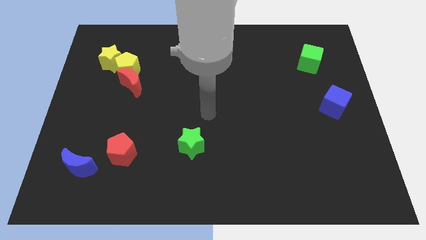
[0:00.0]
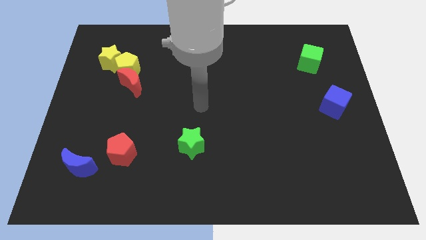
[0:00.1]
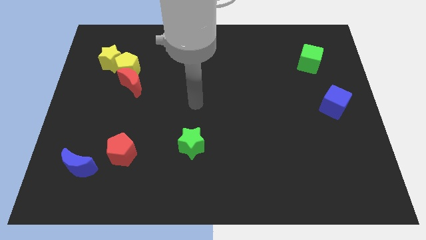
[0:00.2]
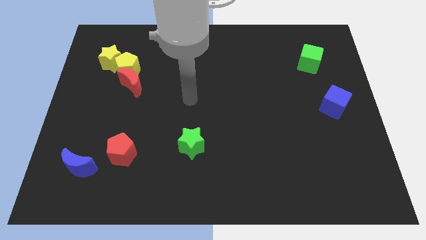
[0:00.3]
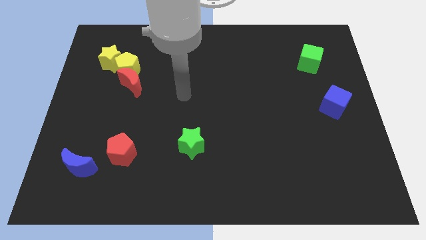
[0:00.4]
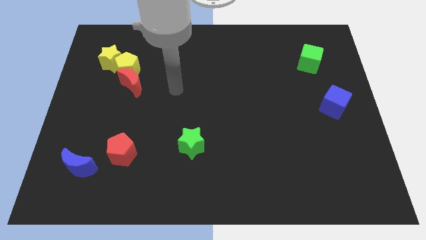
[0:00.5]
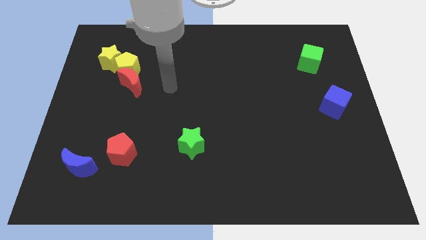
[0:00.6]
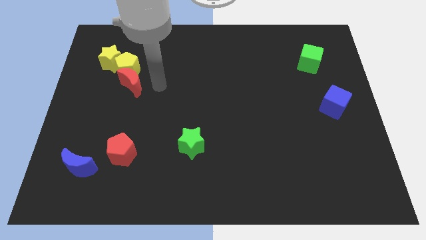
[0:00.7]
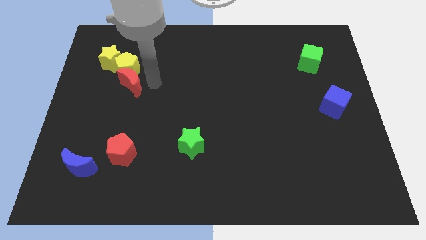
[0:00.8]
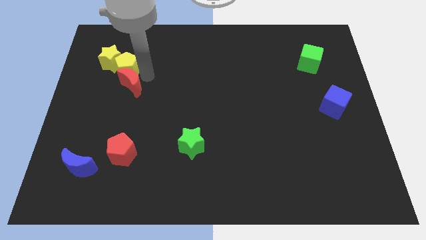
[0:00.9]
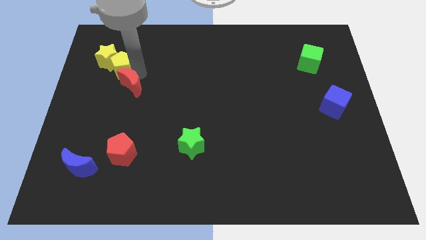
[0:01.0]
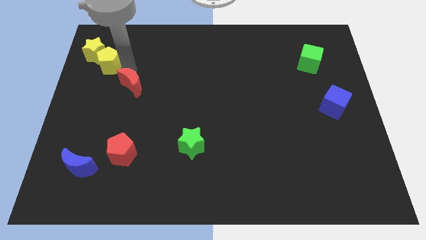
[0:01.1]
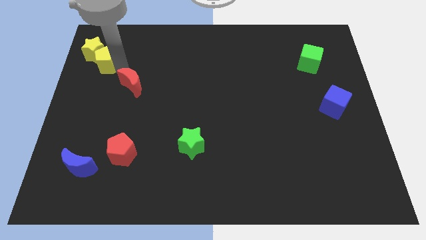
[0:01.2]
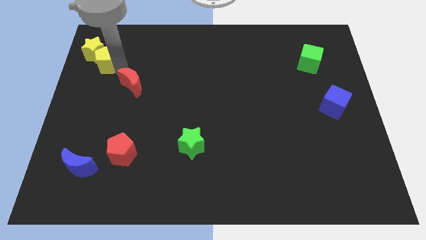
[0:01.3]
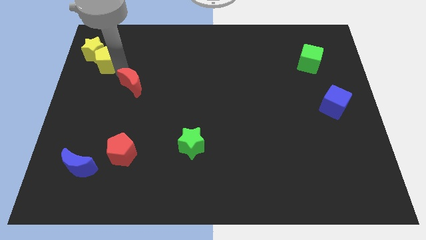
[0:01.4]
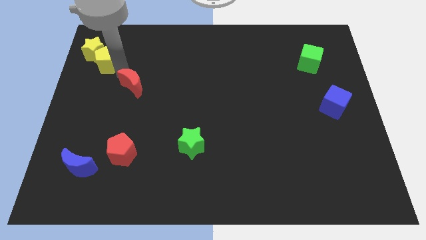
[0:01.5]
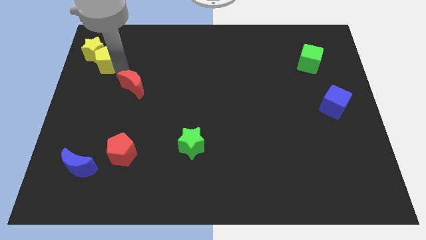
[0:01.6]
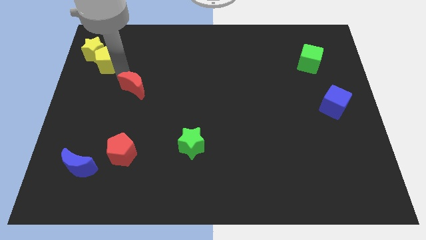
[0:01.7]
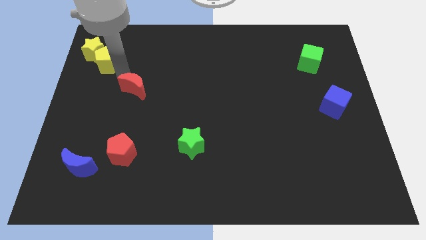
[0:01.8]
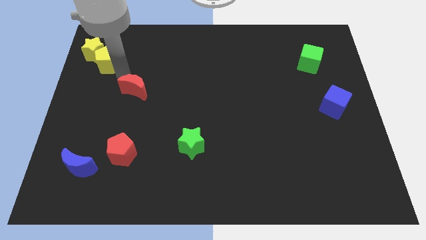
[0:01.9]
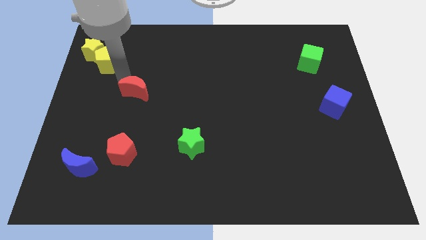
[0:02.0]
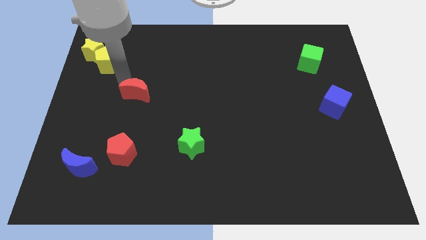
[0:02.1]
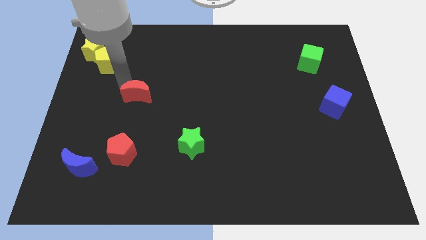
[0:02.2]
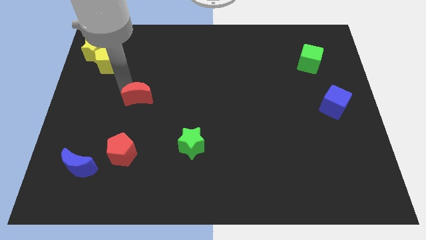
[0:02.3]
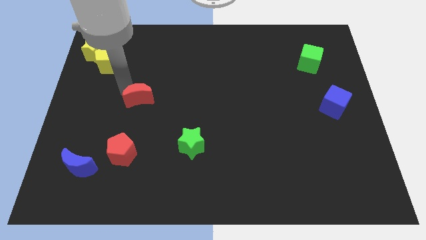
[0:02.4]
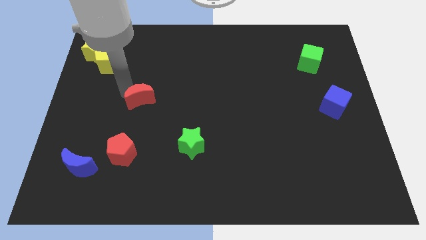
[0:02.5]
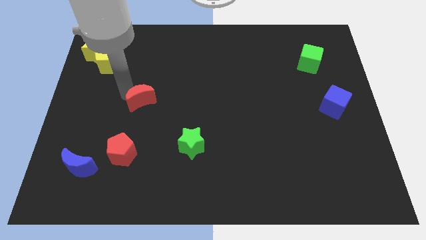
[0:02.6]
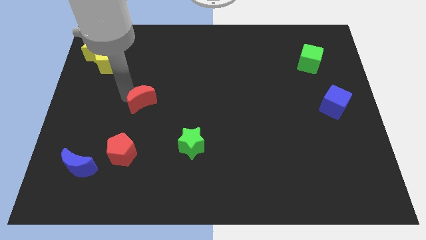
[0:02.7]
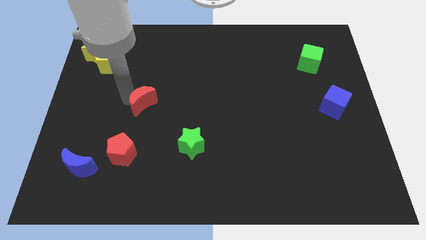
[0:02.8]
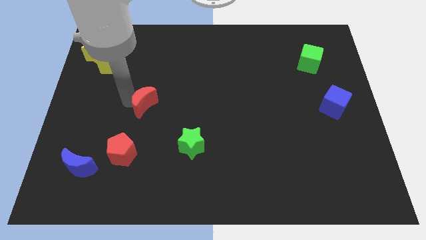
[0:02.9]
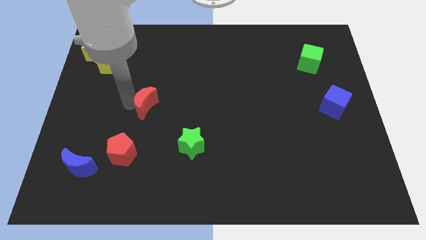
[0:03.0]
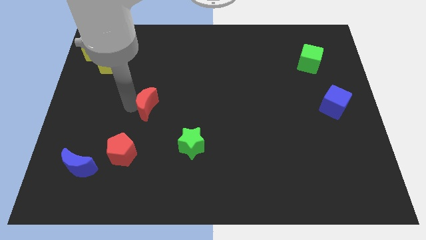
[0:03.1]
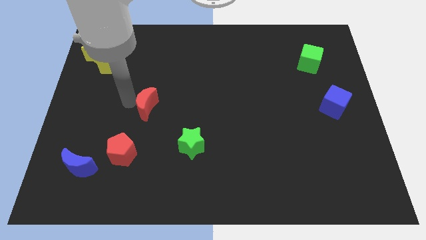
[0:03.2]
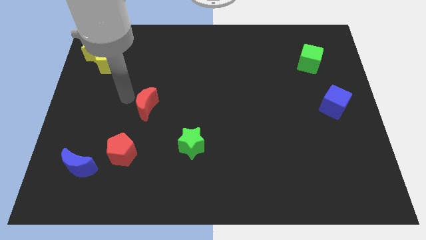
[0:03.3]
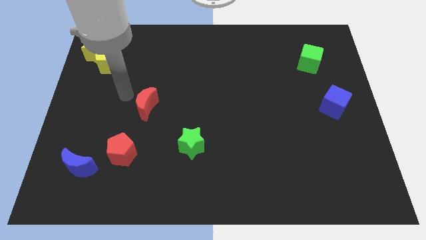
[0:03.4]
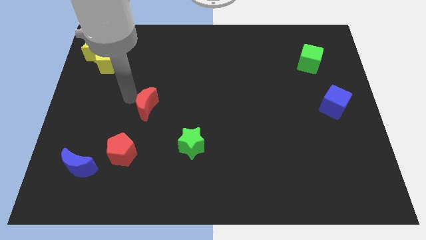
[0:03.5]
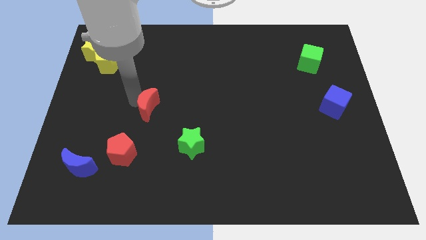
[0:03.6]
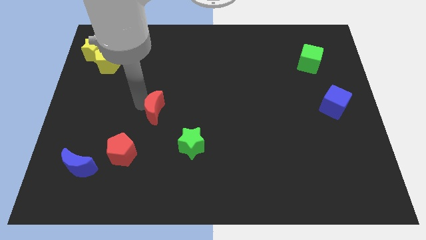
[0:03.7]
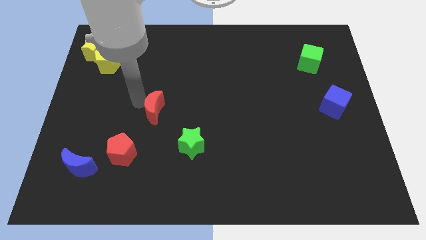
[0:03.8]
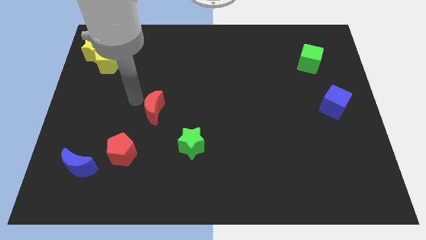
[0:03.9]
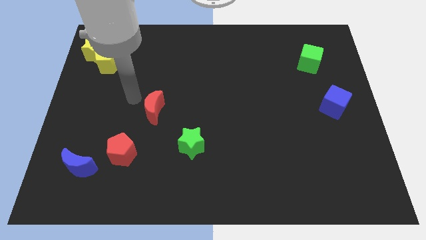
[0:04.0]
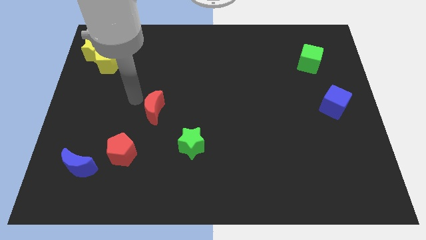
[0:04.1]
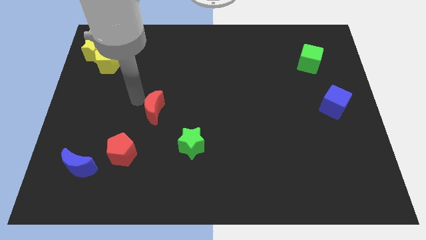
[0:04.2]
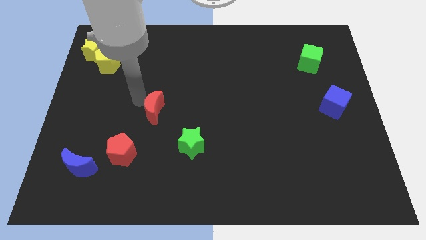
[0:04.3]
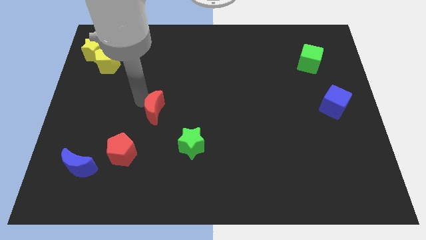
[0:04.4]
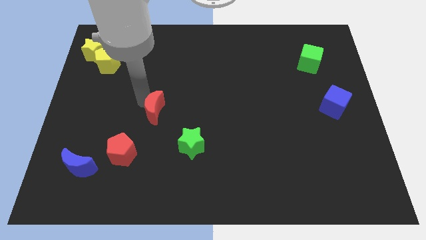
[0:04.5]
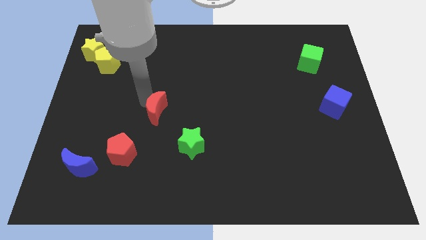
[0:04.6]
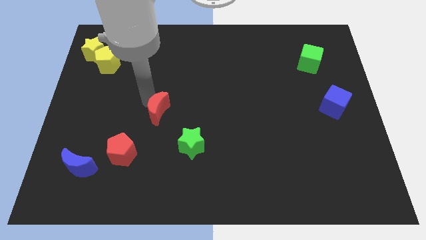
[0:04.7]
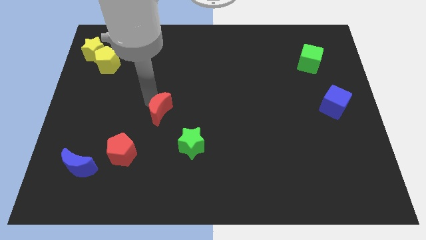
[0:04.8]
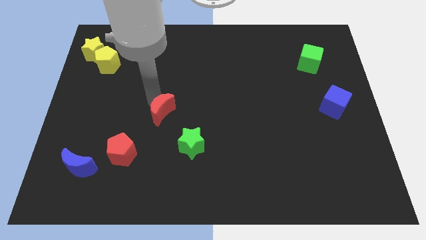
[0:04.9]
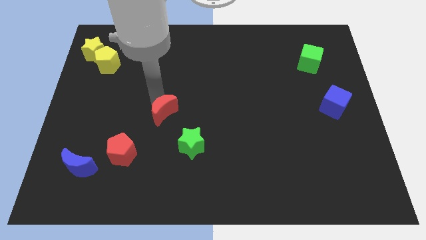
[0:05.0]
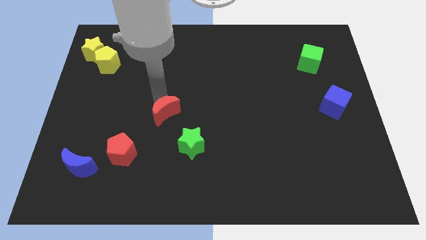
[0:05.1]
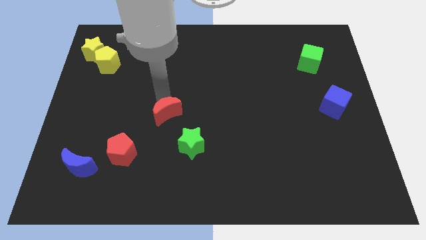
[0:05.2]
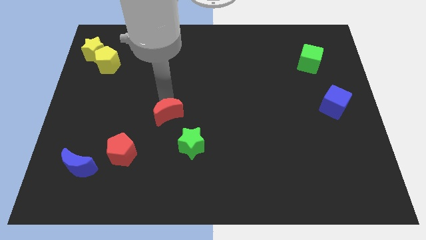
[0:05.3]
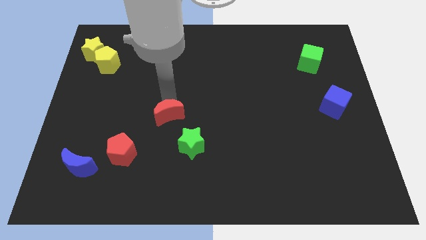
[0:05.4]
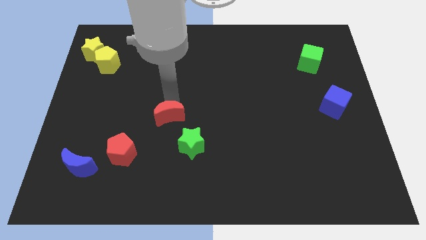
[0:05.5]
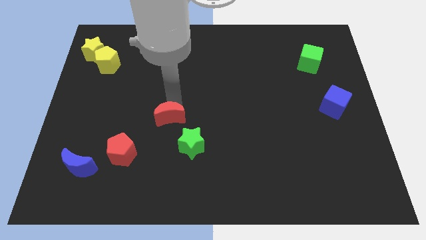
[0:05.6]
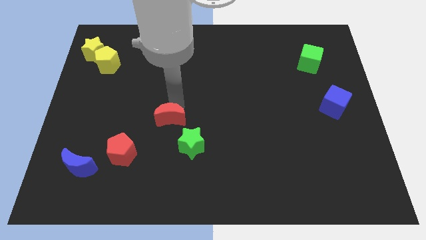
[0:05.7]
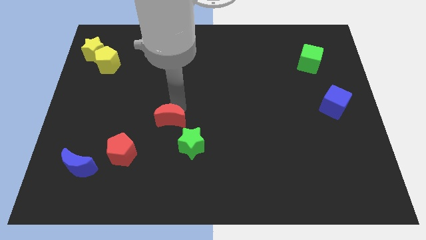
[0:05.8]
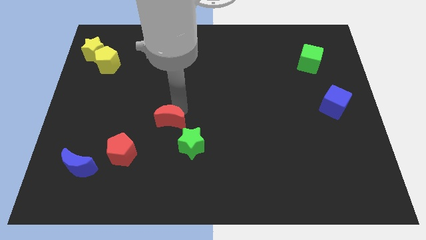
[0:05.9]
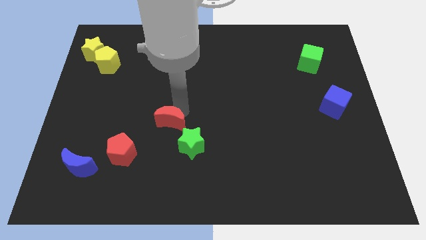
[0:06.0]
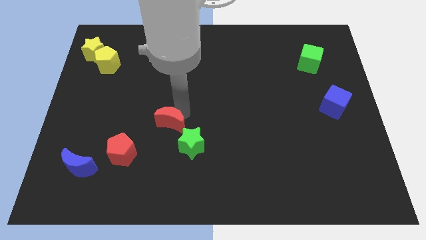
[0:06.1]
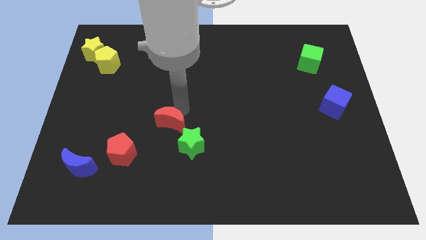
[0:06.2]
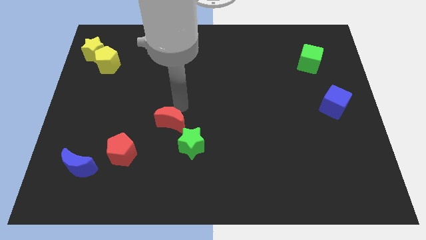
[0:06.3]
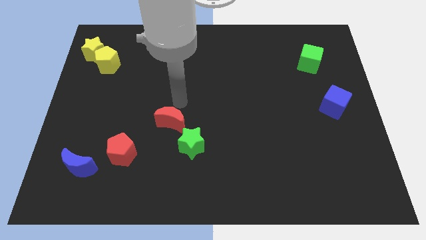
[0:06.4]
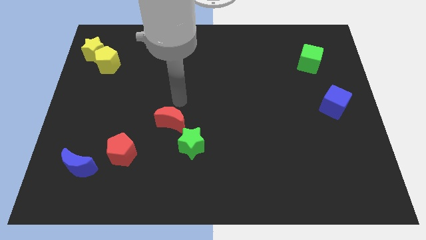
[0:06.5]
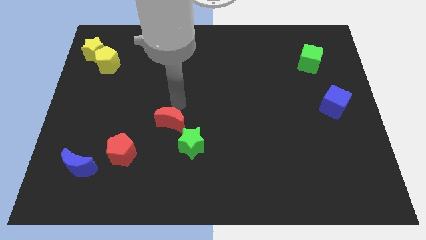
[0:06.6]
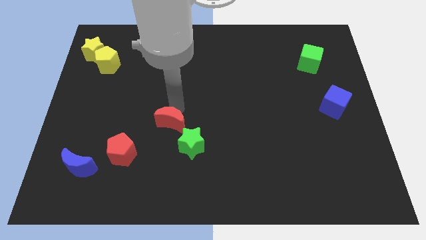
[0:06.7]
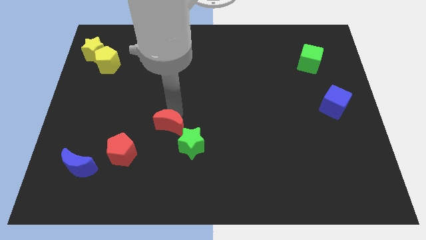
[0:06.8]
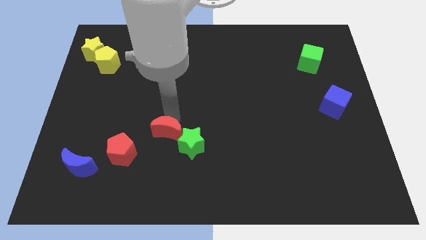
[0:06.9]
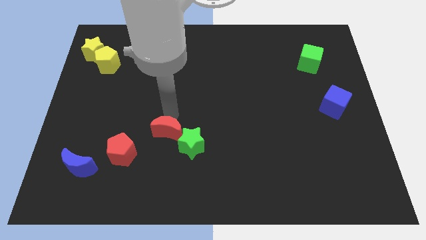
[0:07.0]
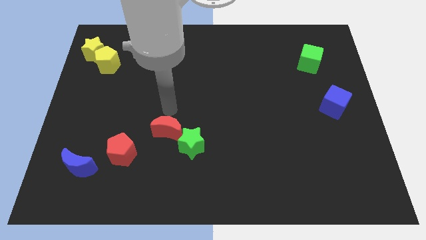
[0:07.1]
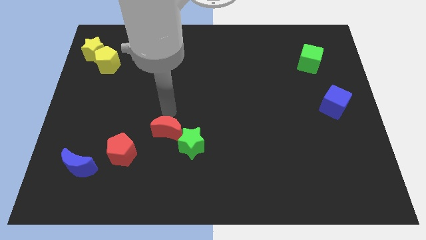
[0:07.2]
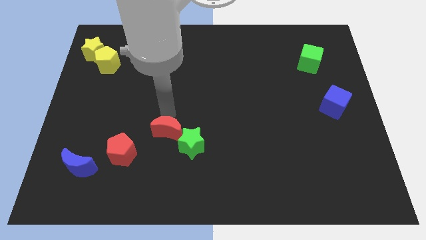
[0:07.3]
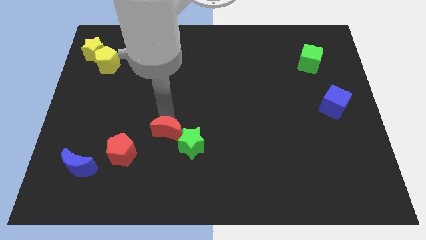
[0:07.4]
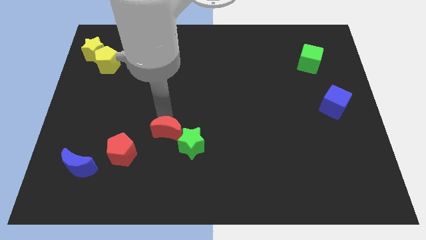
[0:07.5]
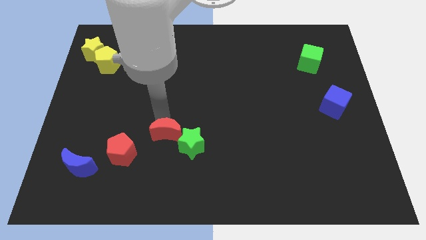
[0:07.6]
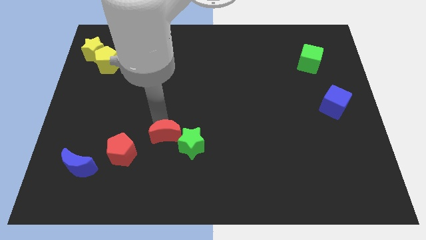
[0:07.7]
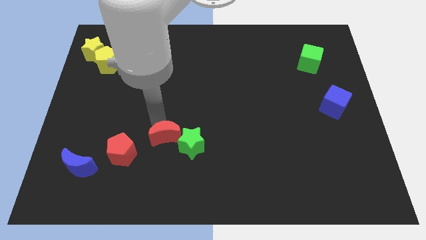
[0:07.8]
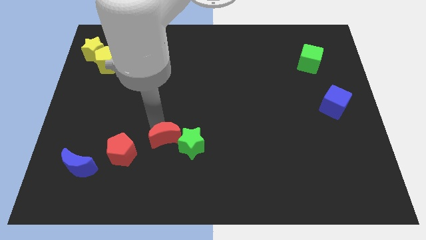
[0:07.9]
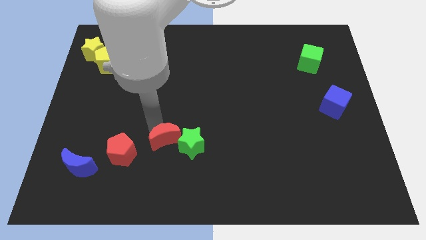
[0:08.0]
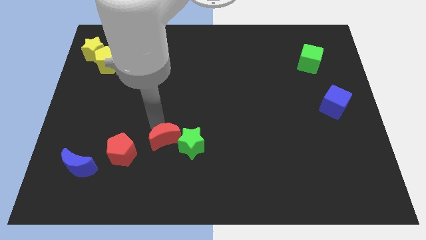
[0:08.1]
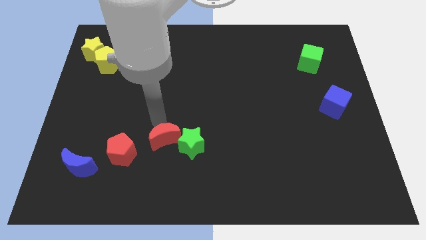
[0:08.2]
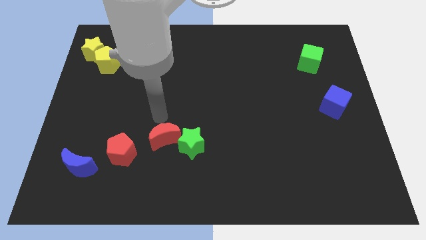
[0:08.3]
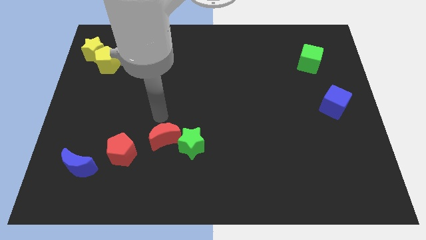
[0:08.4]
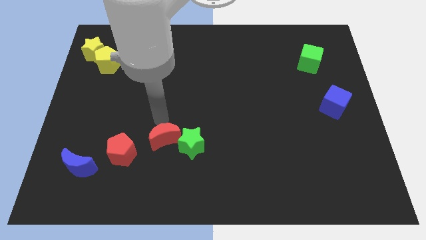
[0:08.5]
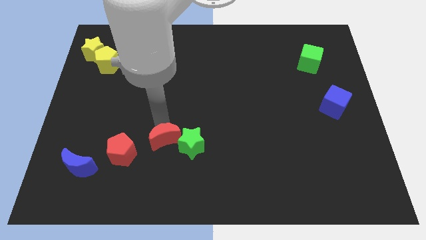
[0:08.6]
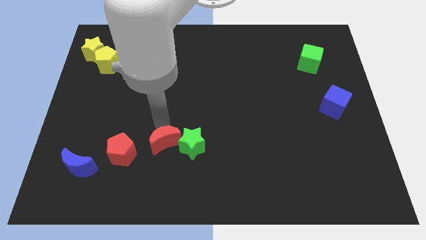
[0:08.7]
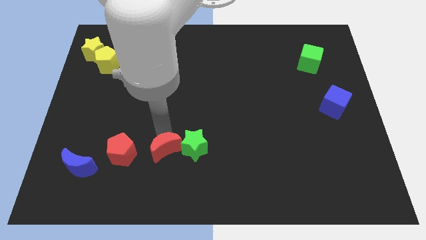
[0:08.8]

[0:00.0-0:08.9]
push the red moon to the bottom left of the green star
